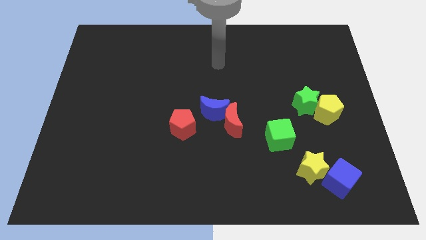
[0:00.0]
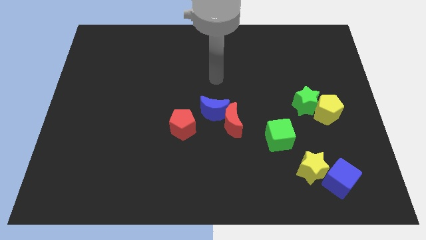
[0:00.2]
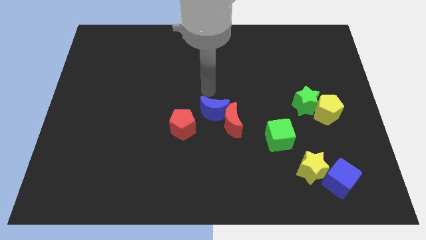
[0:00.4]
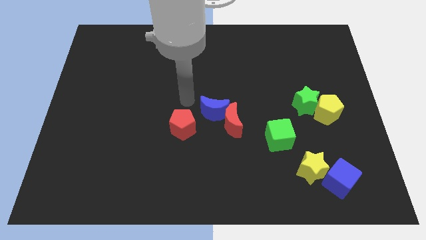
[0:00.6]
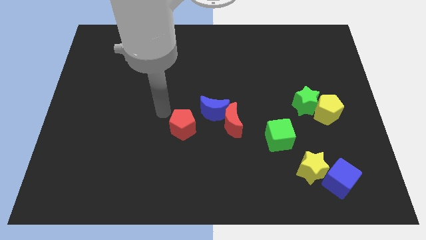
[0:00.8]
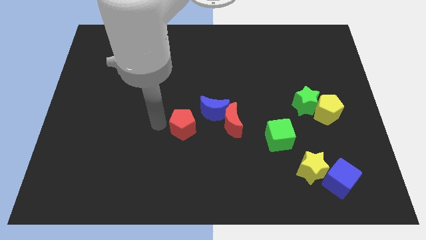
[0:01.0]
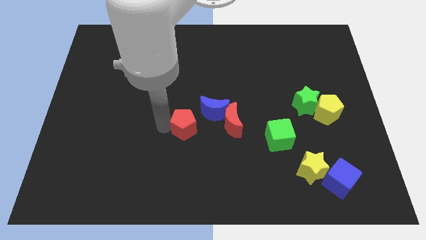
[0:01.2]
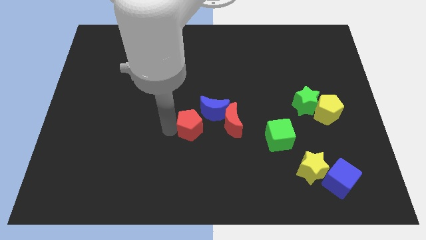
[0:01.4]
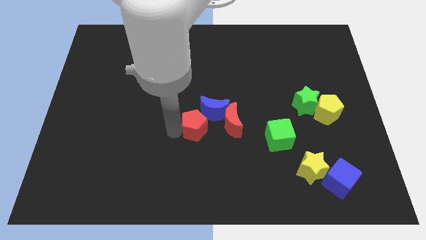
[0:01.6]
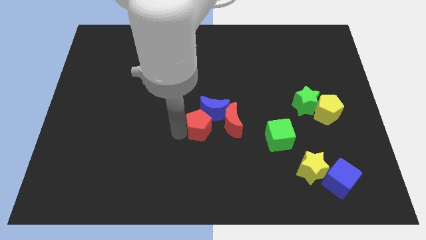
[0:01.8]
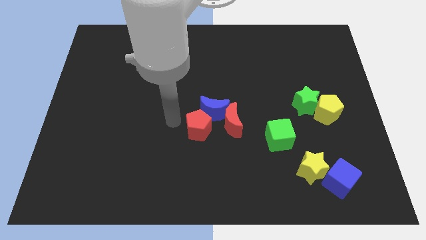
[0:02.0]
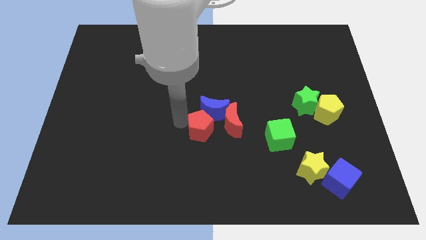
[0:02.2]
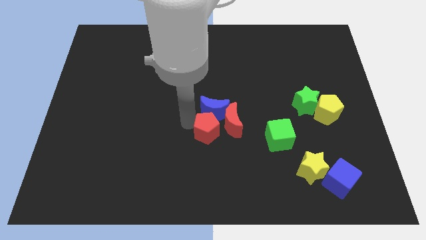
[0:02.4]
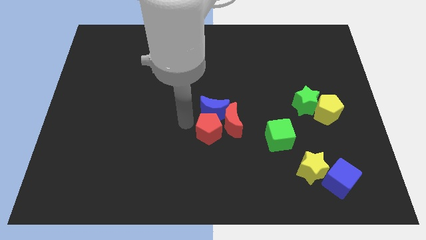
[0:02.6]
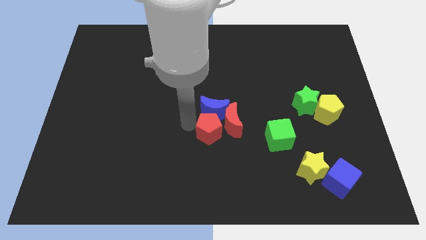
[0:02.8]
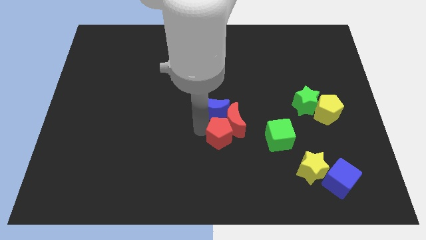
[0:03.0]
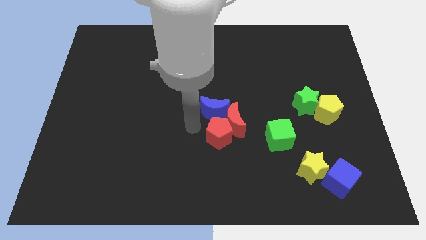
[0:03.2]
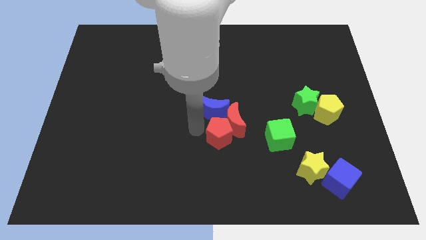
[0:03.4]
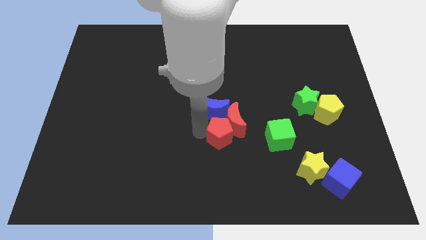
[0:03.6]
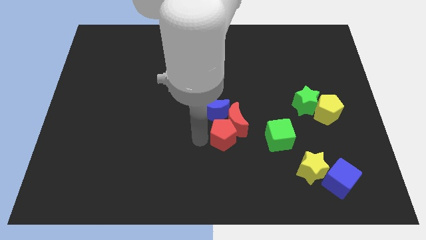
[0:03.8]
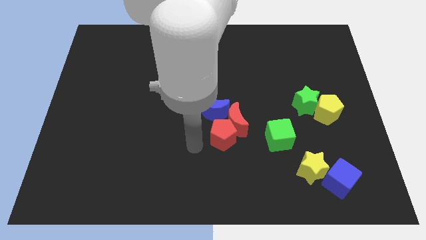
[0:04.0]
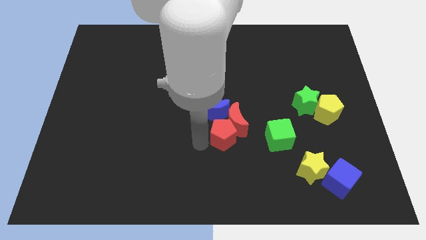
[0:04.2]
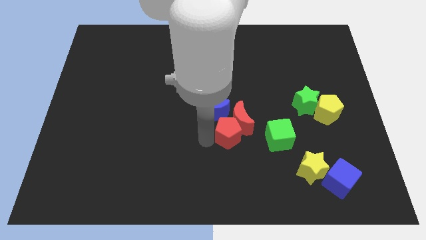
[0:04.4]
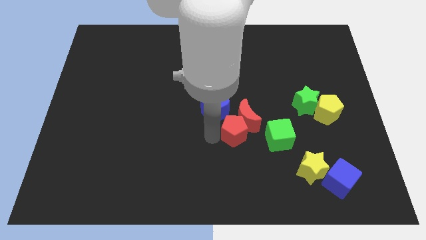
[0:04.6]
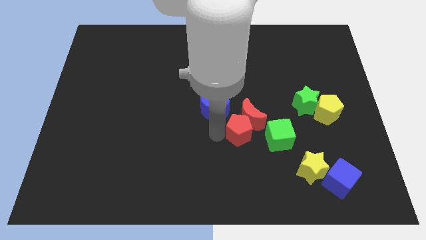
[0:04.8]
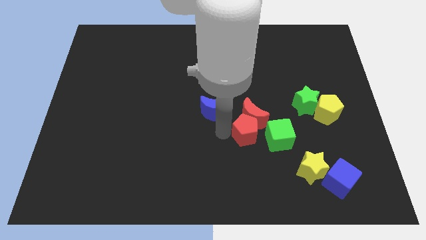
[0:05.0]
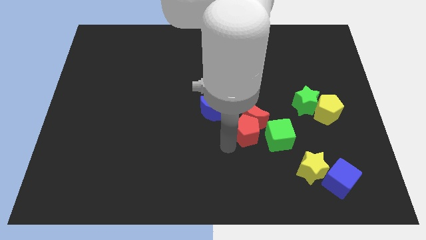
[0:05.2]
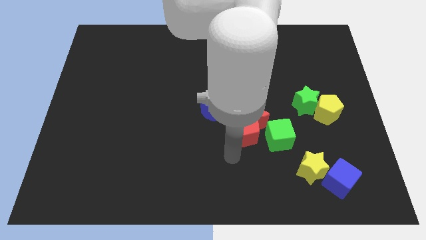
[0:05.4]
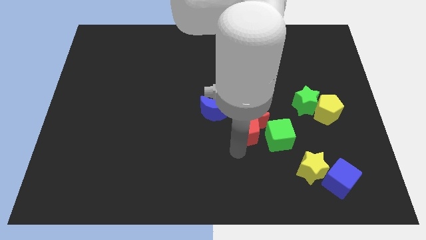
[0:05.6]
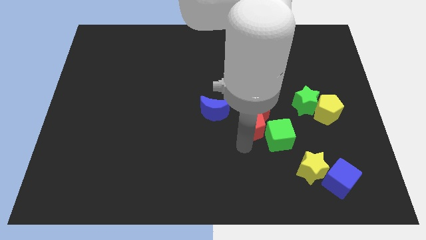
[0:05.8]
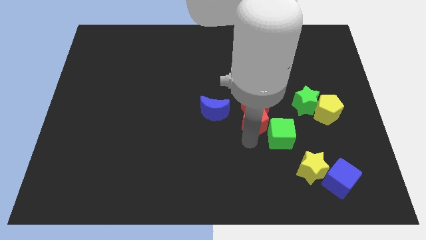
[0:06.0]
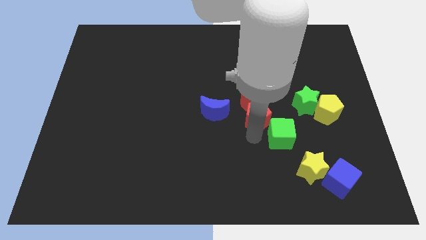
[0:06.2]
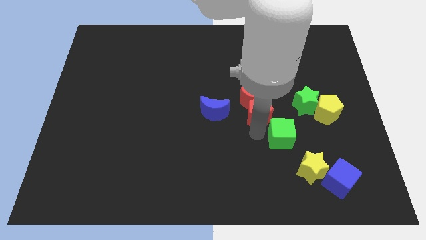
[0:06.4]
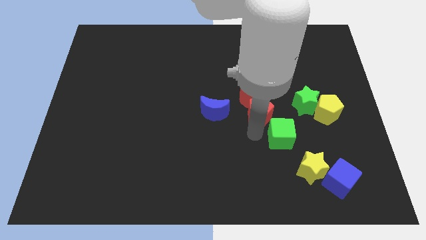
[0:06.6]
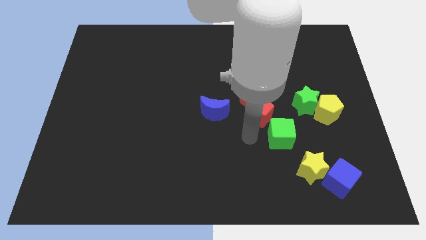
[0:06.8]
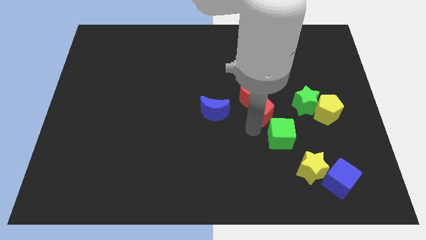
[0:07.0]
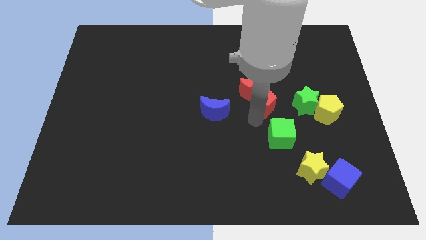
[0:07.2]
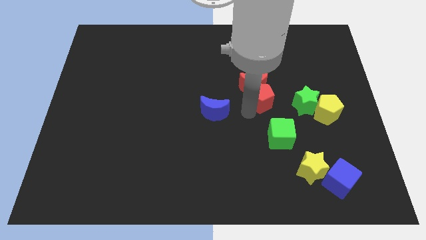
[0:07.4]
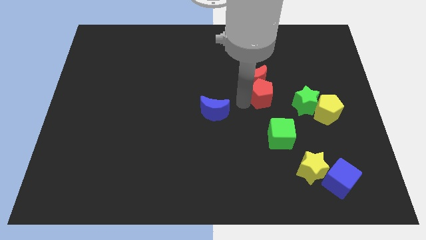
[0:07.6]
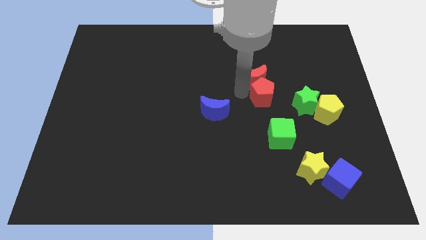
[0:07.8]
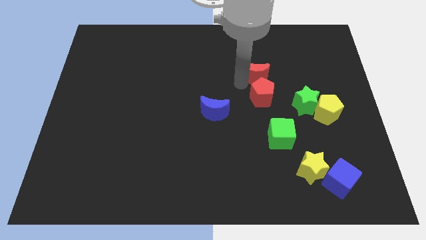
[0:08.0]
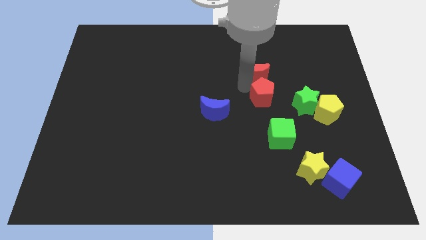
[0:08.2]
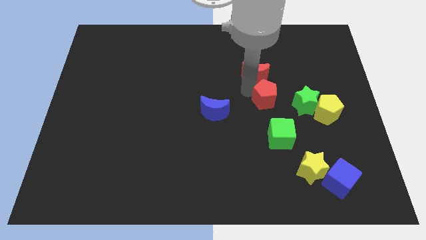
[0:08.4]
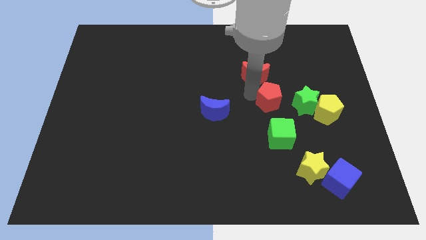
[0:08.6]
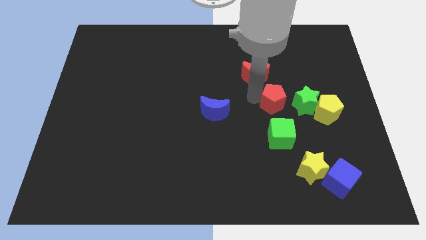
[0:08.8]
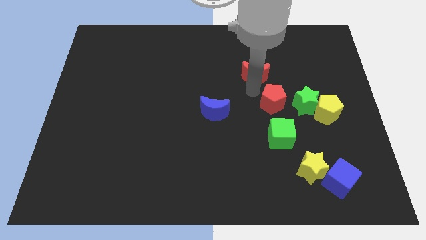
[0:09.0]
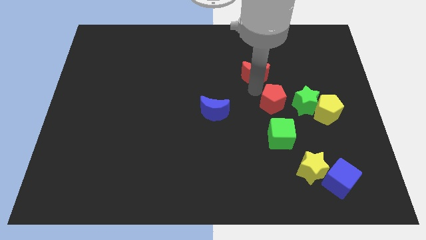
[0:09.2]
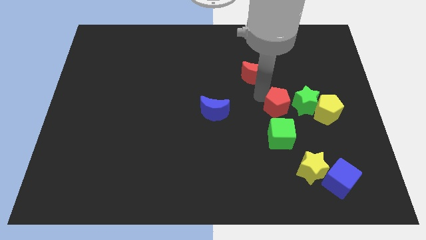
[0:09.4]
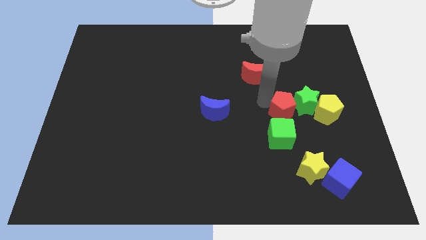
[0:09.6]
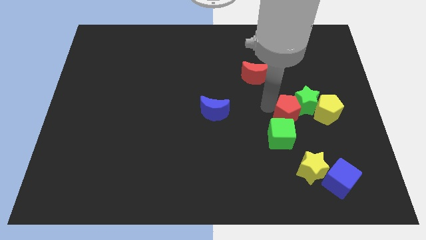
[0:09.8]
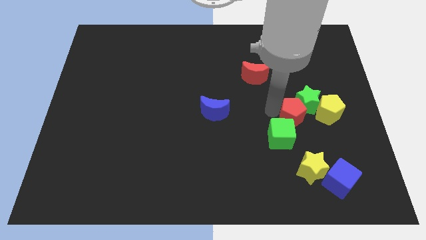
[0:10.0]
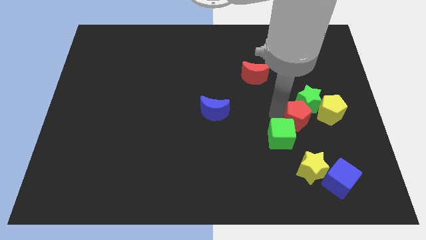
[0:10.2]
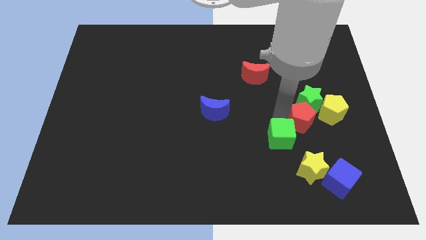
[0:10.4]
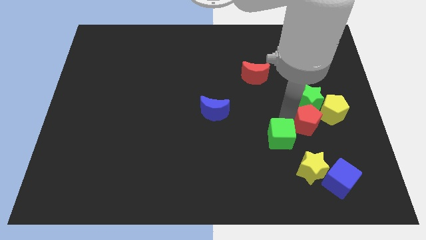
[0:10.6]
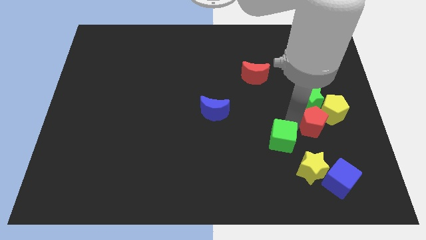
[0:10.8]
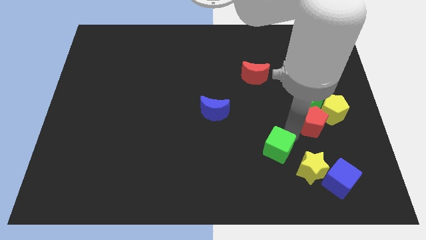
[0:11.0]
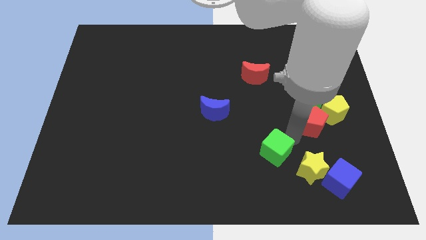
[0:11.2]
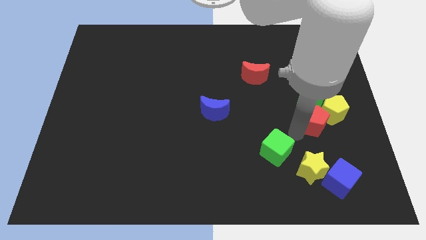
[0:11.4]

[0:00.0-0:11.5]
push the red pentagon close to the yellow pentagon

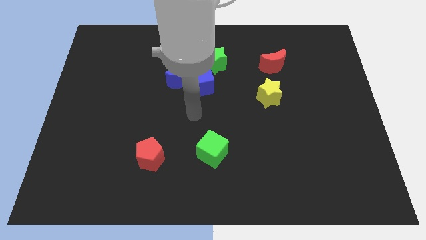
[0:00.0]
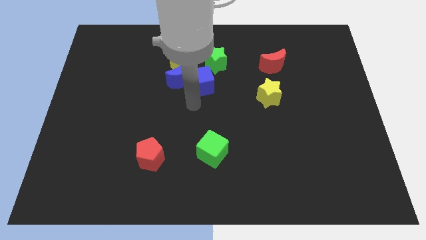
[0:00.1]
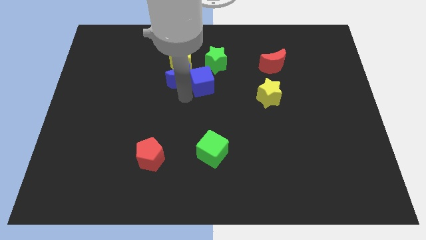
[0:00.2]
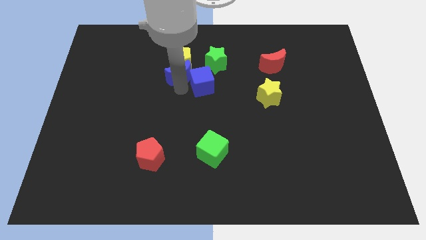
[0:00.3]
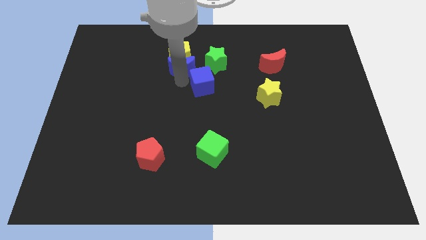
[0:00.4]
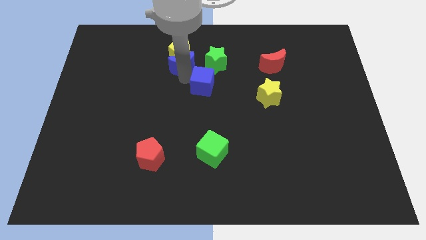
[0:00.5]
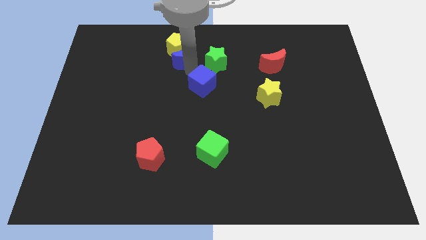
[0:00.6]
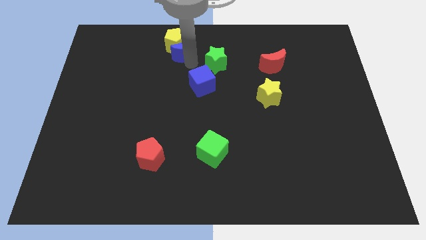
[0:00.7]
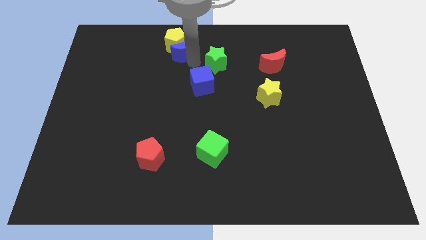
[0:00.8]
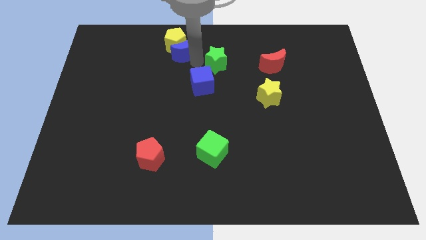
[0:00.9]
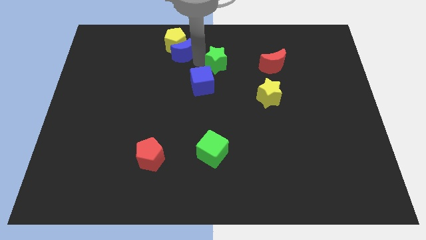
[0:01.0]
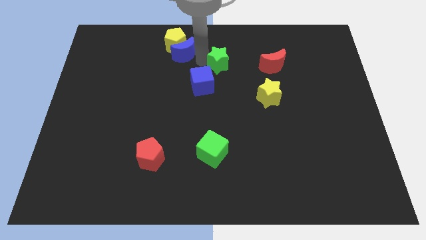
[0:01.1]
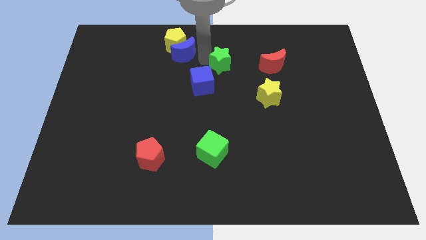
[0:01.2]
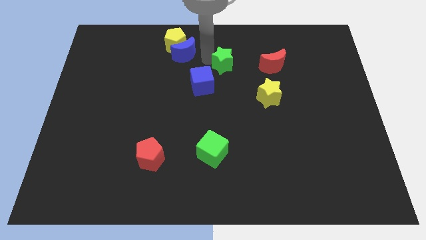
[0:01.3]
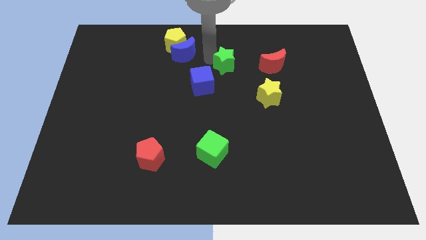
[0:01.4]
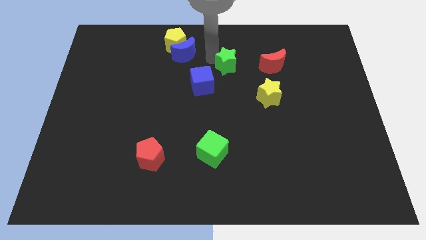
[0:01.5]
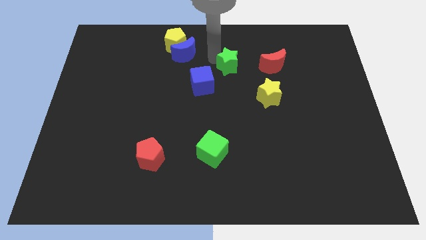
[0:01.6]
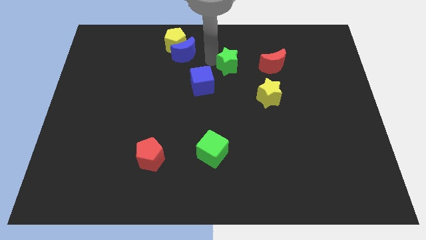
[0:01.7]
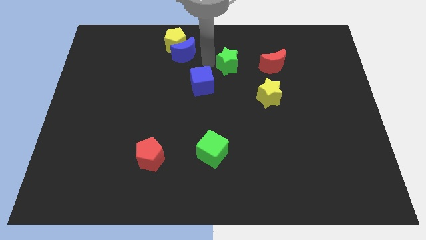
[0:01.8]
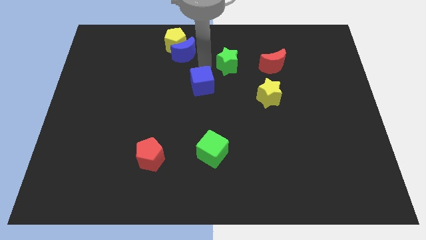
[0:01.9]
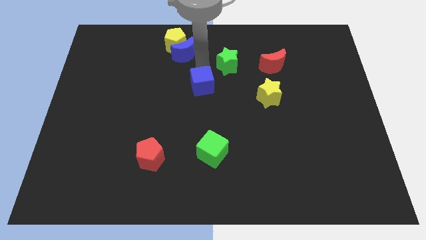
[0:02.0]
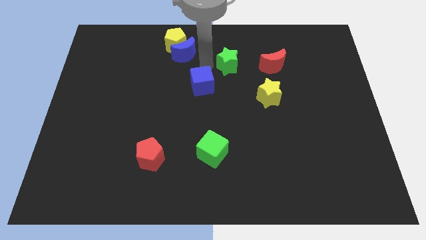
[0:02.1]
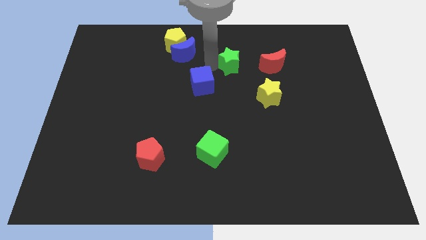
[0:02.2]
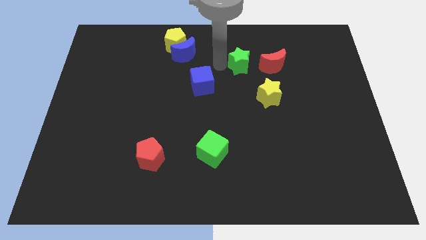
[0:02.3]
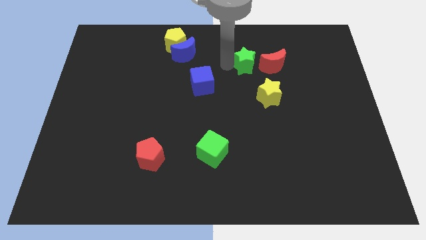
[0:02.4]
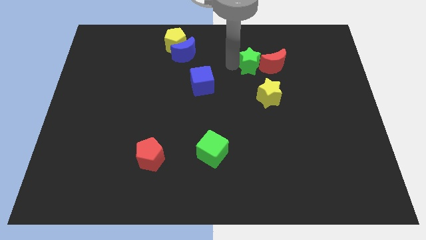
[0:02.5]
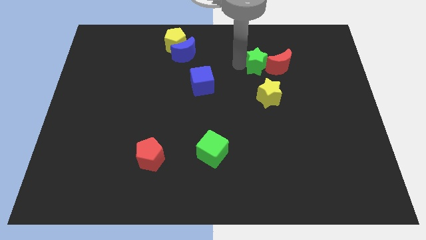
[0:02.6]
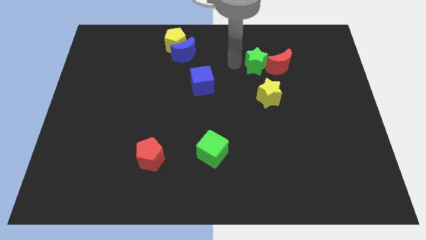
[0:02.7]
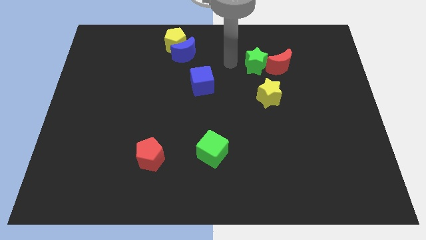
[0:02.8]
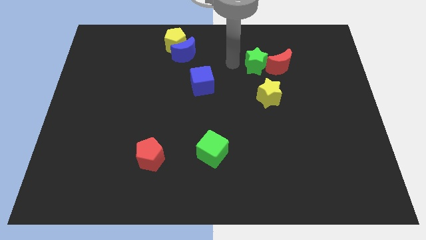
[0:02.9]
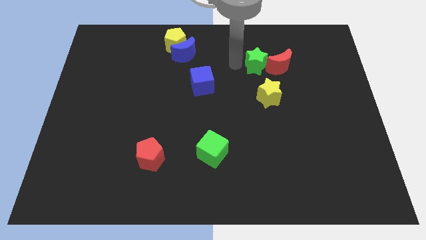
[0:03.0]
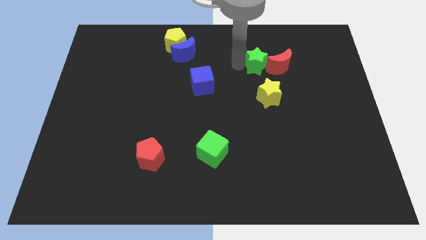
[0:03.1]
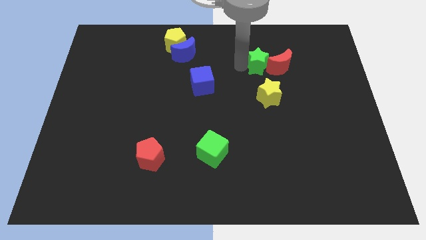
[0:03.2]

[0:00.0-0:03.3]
slide the green star next to the red moon
